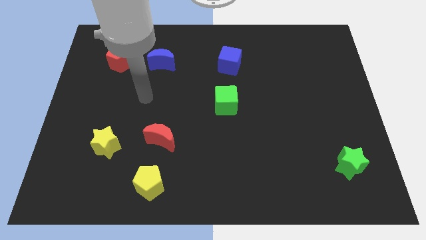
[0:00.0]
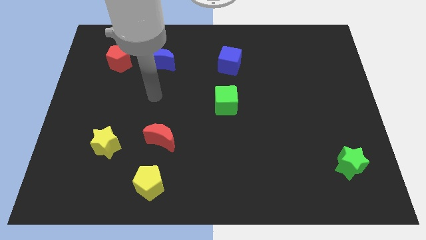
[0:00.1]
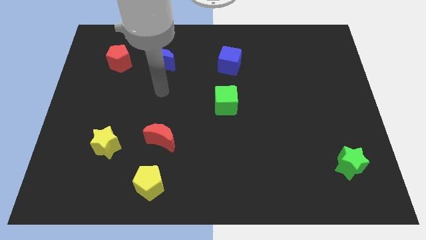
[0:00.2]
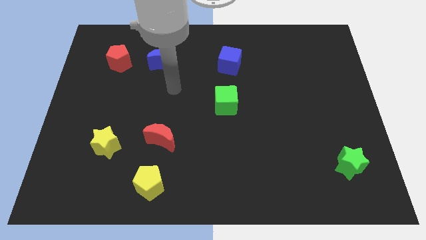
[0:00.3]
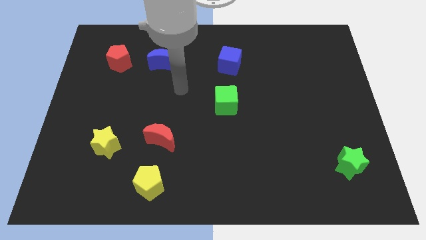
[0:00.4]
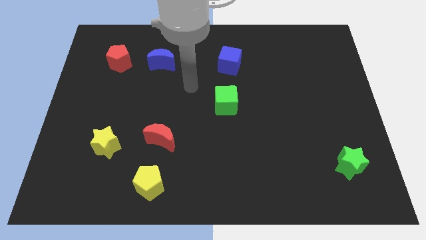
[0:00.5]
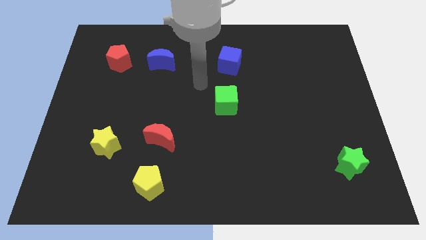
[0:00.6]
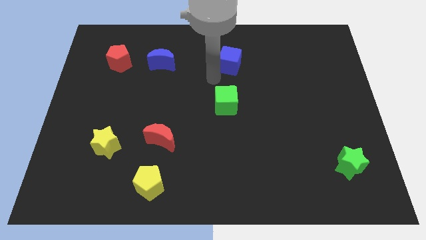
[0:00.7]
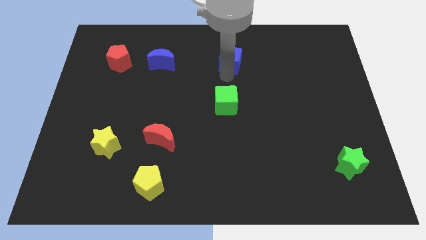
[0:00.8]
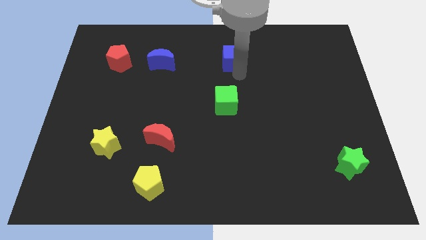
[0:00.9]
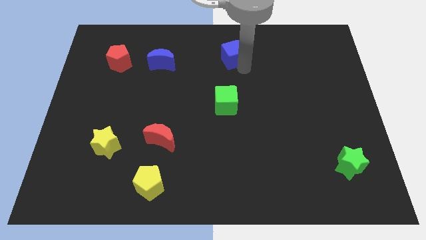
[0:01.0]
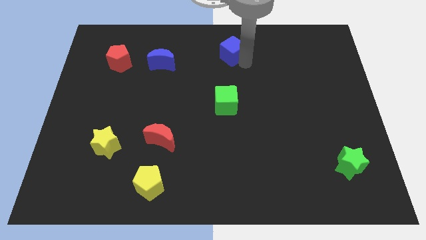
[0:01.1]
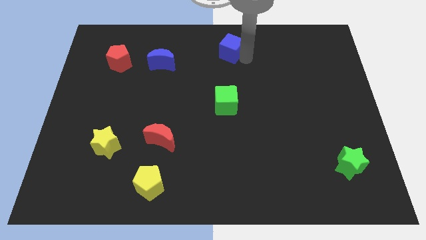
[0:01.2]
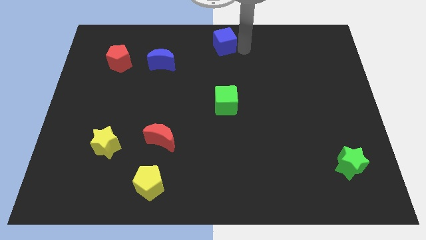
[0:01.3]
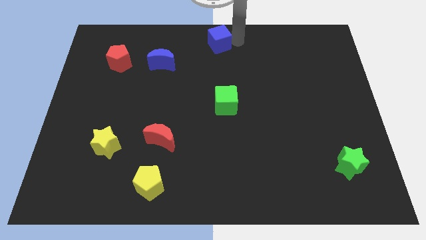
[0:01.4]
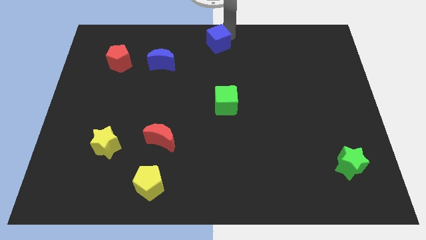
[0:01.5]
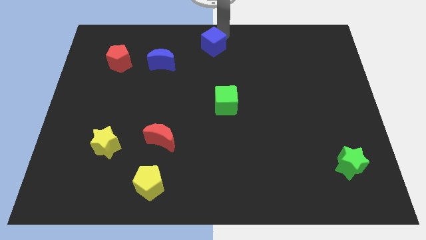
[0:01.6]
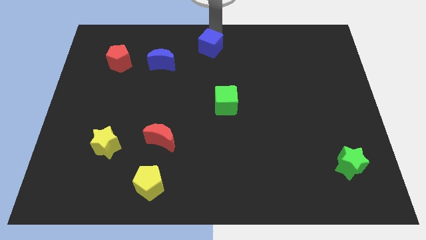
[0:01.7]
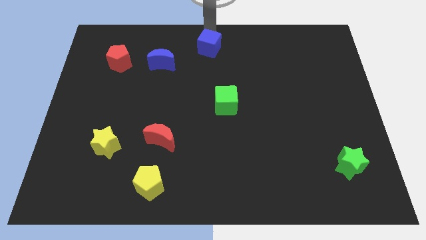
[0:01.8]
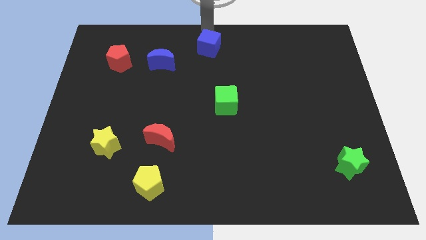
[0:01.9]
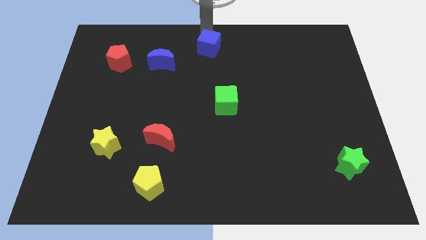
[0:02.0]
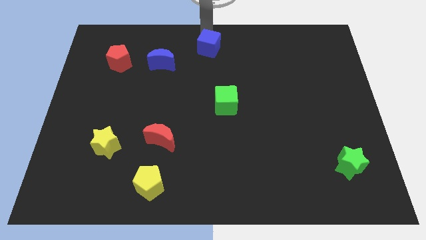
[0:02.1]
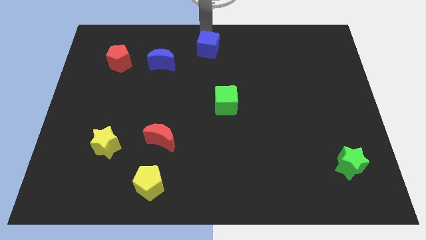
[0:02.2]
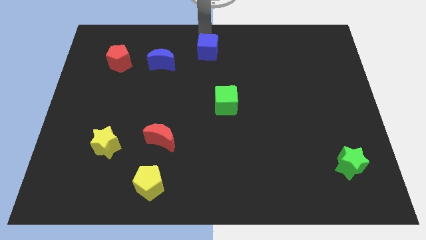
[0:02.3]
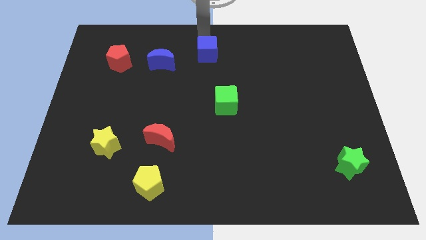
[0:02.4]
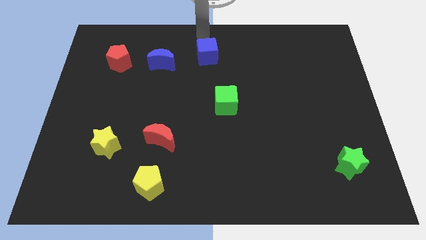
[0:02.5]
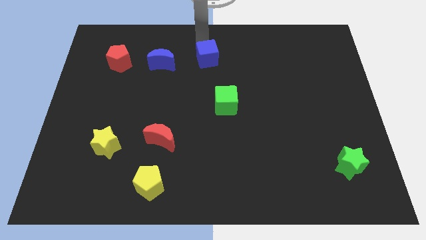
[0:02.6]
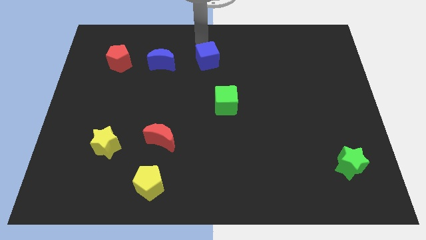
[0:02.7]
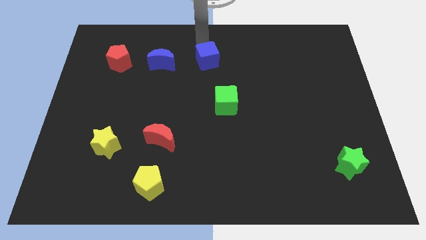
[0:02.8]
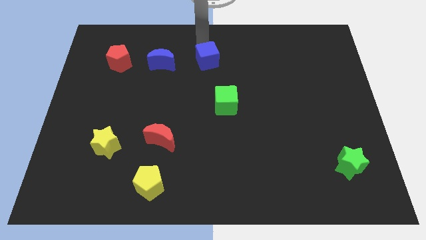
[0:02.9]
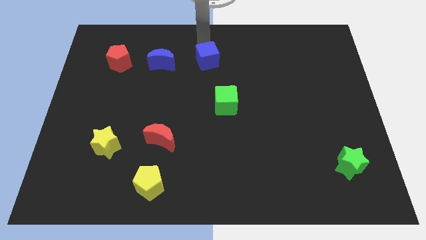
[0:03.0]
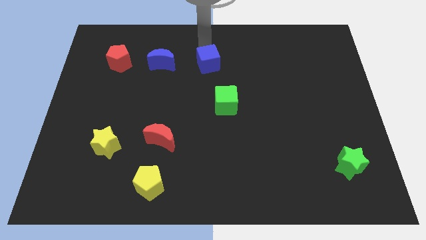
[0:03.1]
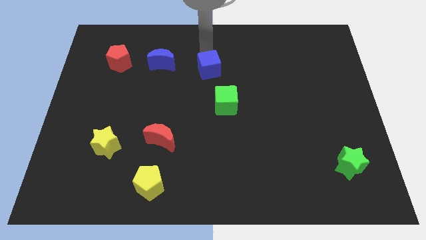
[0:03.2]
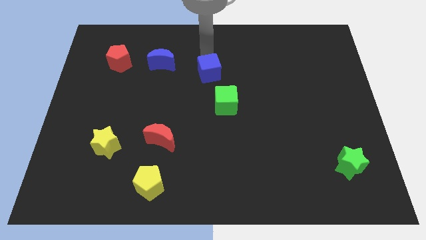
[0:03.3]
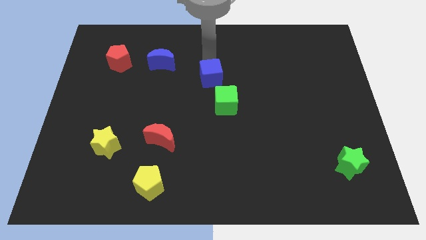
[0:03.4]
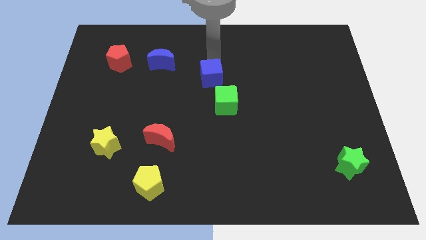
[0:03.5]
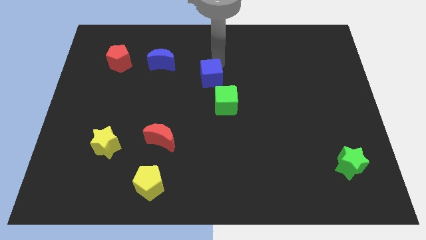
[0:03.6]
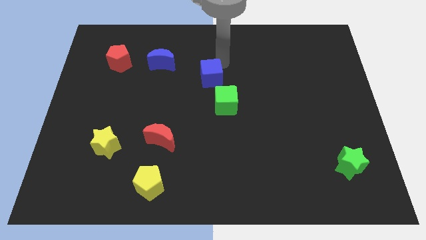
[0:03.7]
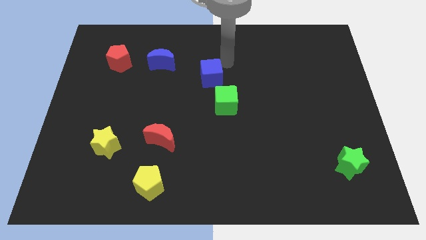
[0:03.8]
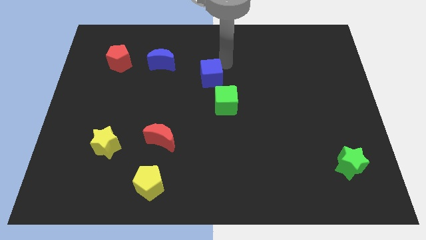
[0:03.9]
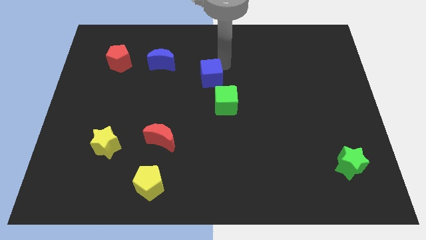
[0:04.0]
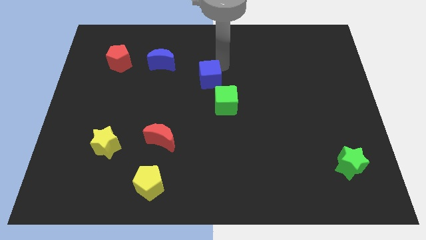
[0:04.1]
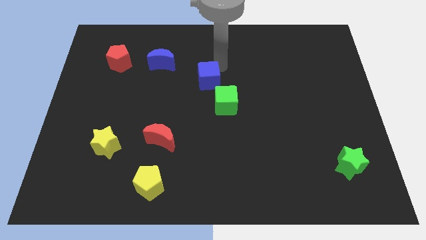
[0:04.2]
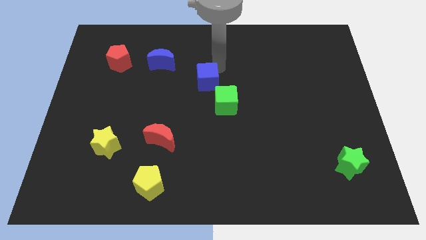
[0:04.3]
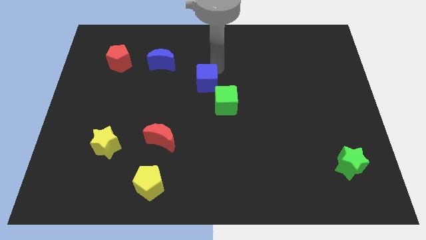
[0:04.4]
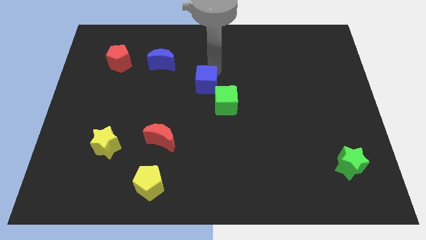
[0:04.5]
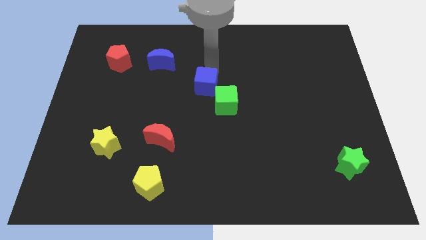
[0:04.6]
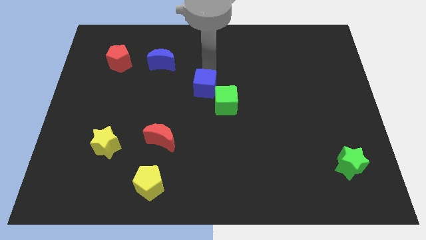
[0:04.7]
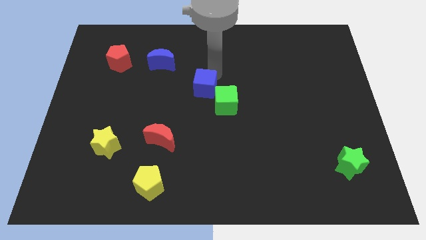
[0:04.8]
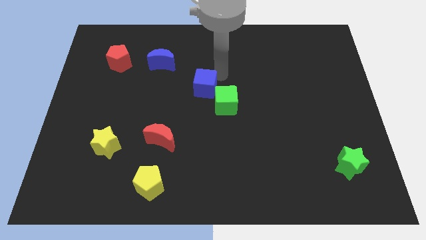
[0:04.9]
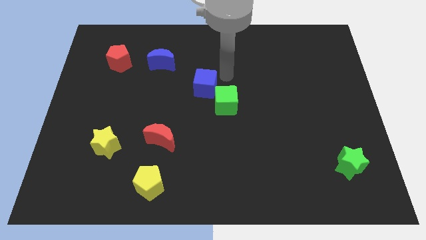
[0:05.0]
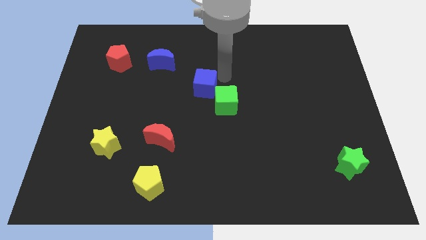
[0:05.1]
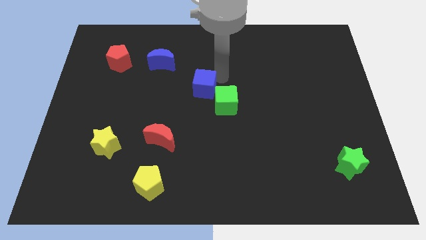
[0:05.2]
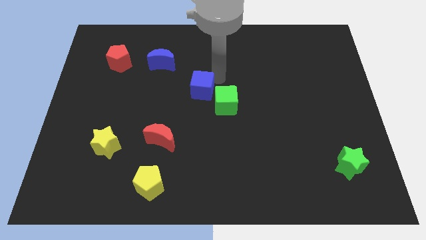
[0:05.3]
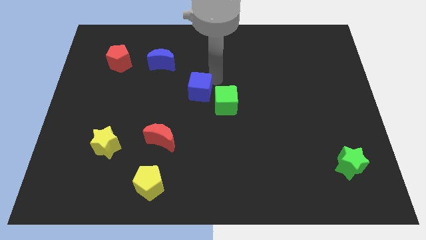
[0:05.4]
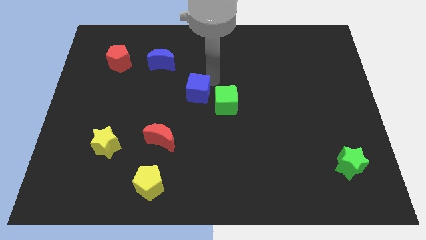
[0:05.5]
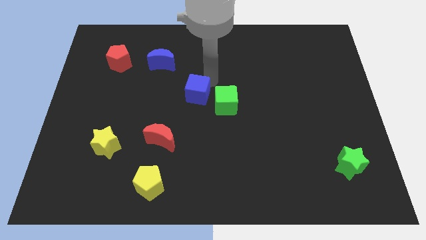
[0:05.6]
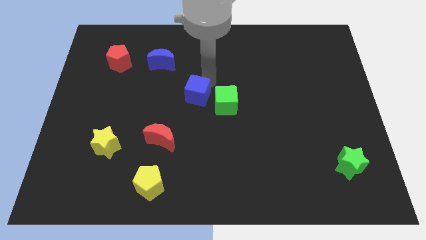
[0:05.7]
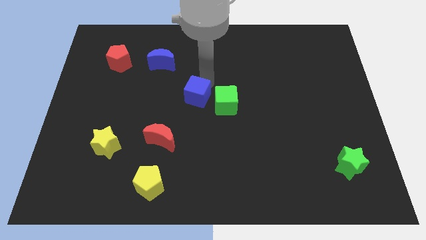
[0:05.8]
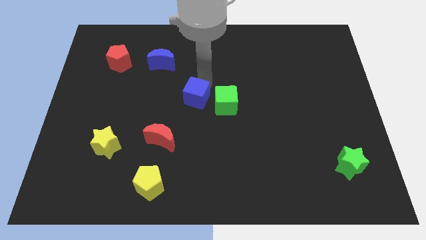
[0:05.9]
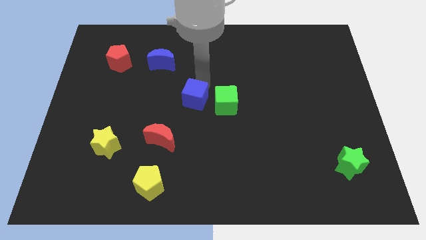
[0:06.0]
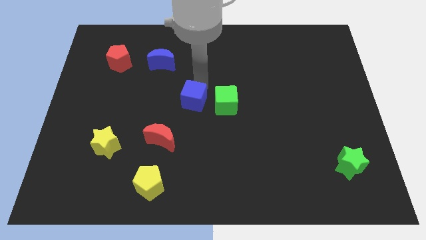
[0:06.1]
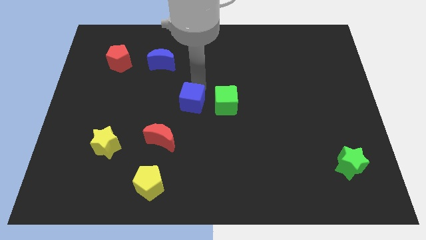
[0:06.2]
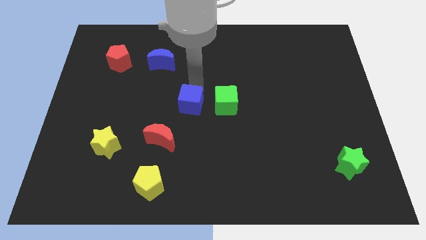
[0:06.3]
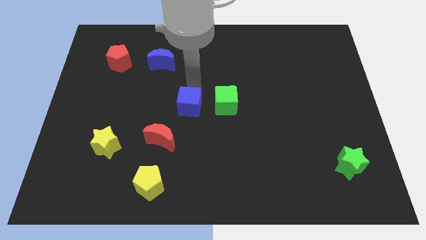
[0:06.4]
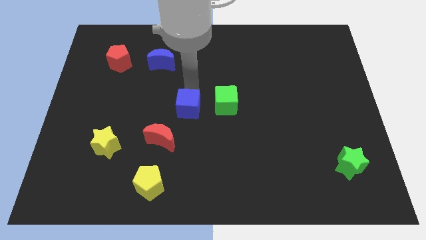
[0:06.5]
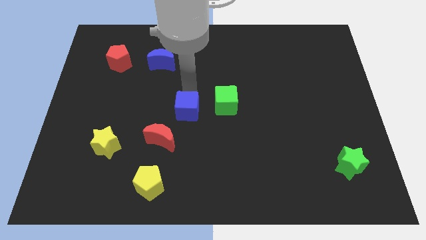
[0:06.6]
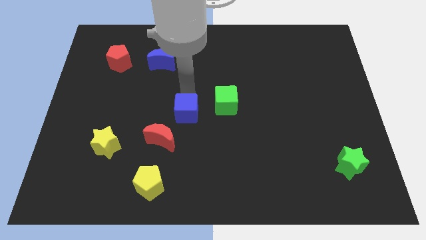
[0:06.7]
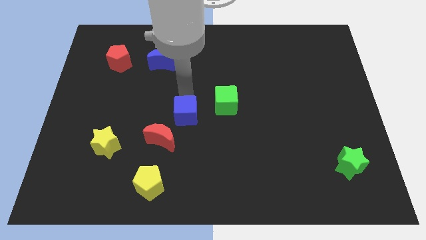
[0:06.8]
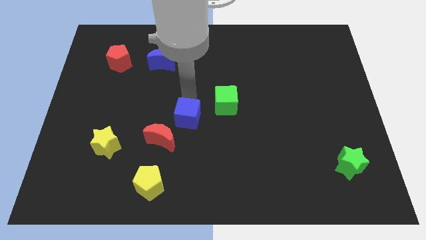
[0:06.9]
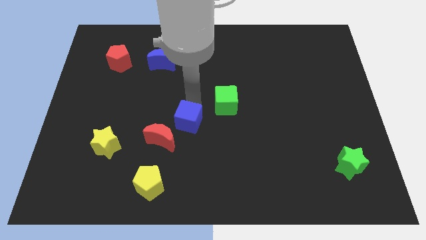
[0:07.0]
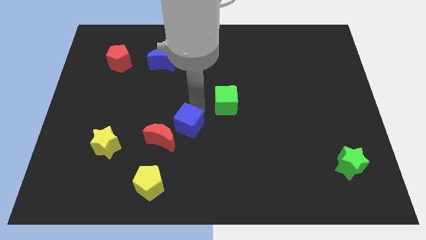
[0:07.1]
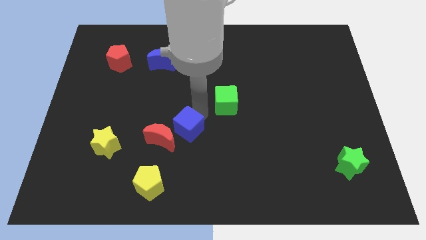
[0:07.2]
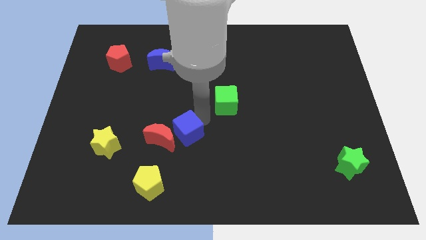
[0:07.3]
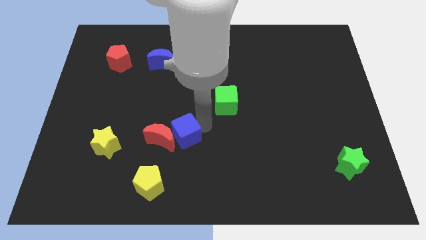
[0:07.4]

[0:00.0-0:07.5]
move the blue cube down and then left

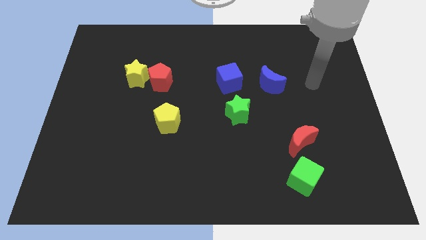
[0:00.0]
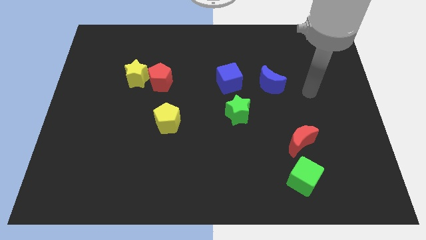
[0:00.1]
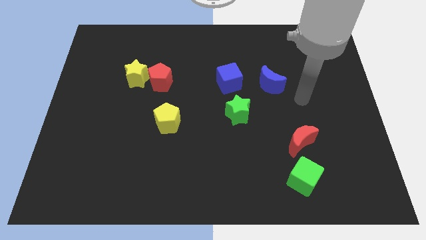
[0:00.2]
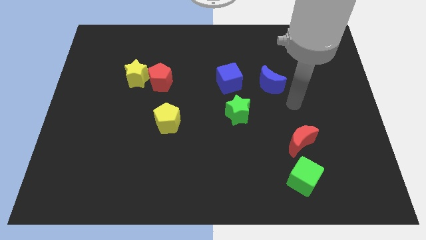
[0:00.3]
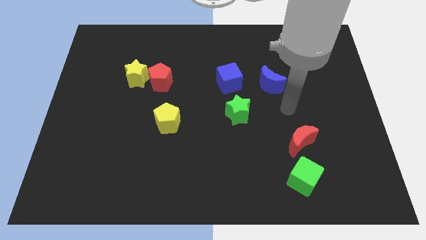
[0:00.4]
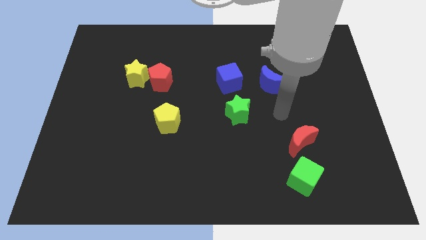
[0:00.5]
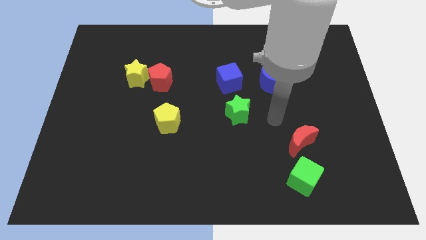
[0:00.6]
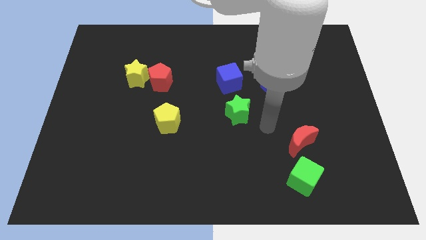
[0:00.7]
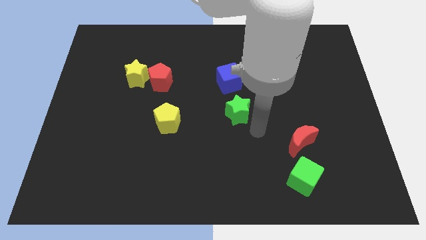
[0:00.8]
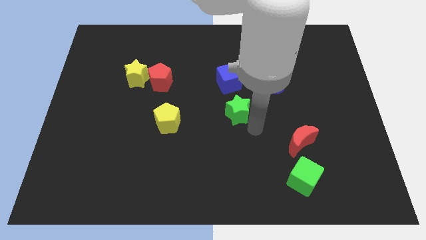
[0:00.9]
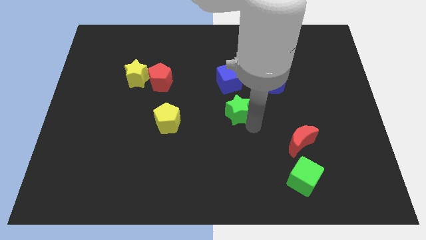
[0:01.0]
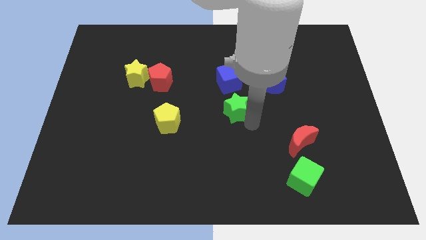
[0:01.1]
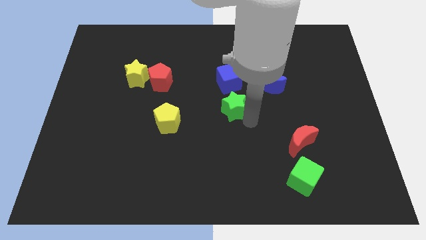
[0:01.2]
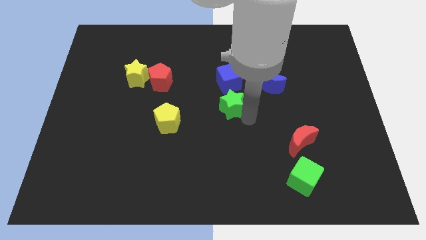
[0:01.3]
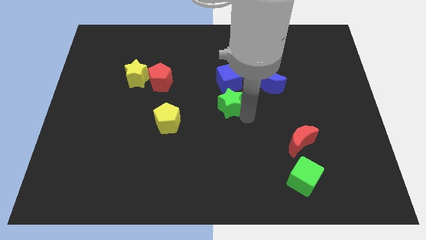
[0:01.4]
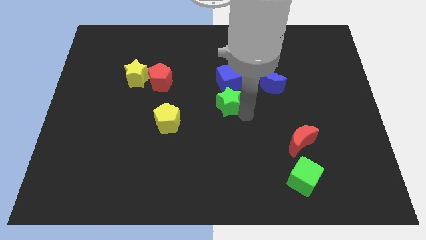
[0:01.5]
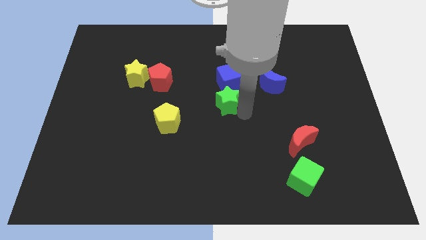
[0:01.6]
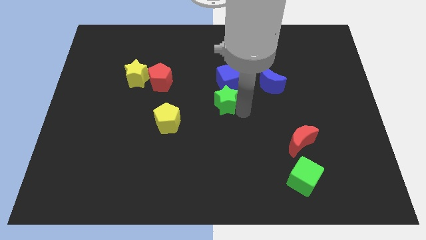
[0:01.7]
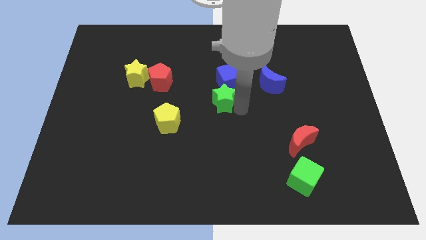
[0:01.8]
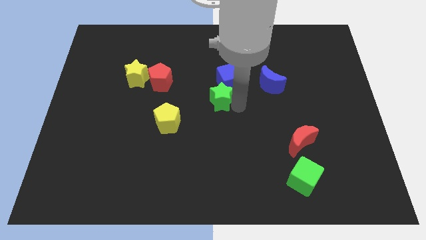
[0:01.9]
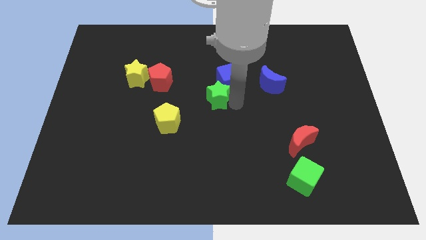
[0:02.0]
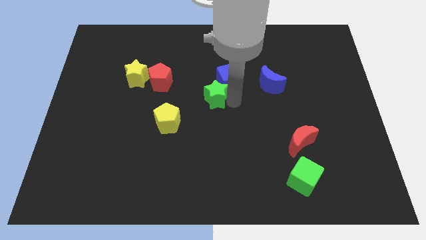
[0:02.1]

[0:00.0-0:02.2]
push the green star a little upwards and to the left diagonally
